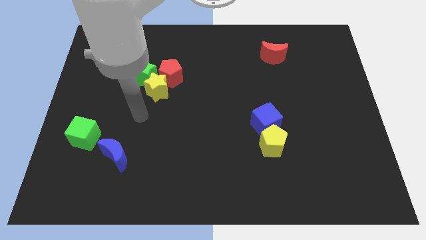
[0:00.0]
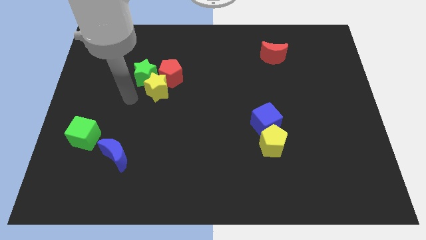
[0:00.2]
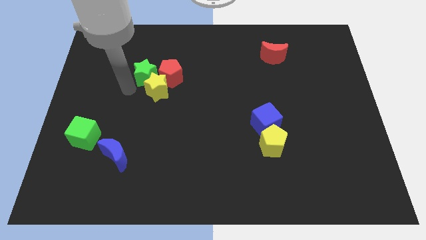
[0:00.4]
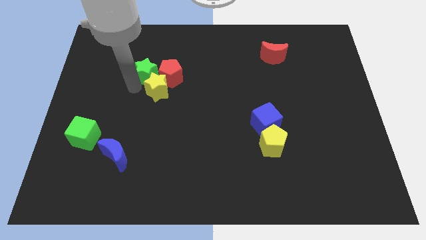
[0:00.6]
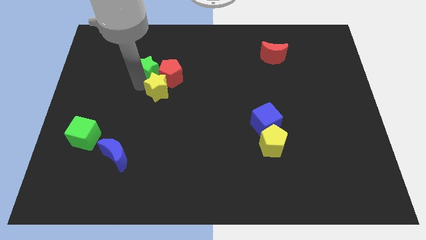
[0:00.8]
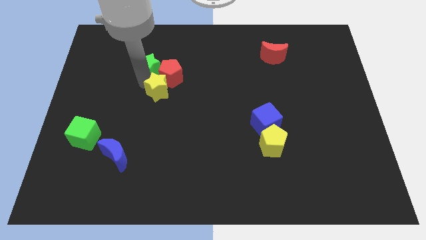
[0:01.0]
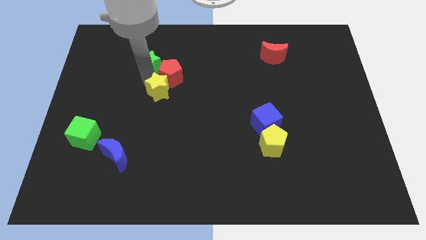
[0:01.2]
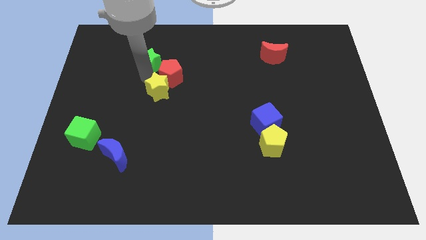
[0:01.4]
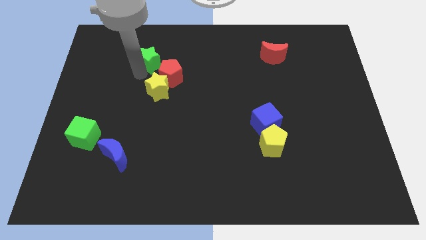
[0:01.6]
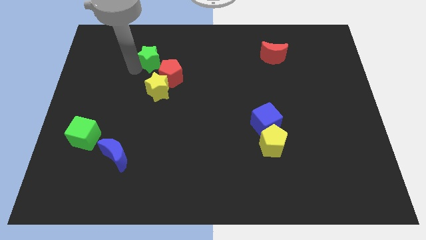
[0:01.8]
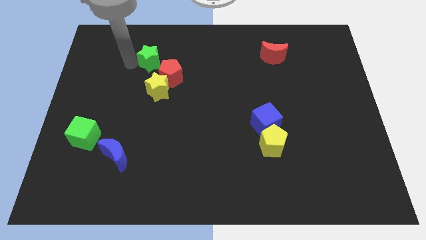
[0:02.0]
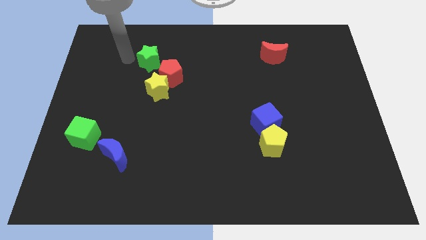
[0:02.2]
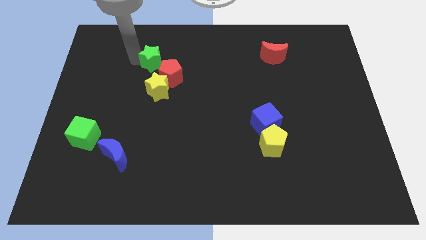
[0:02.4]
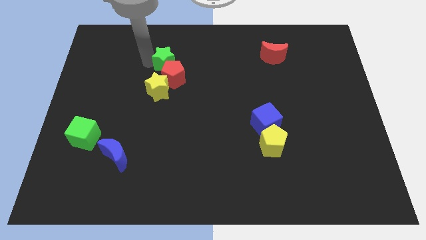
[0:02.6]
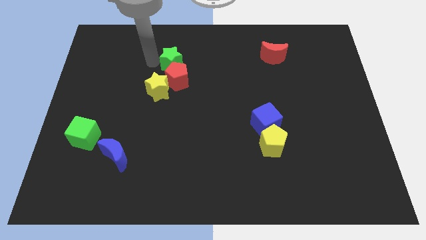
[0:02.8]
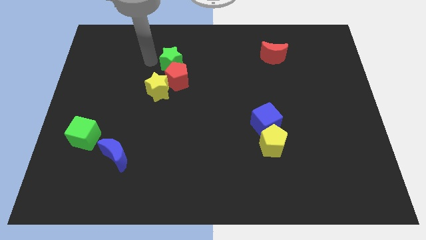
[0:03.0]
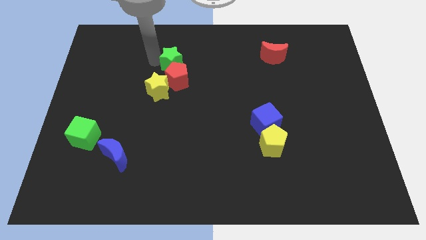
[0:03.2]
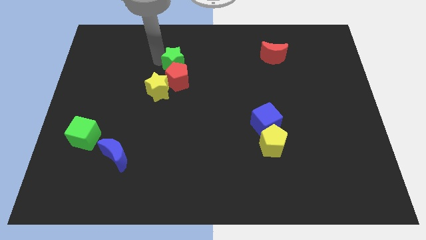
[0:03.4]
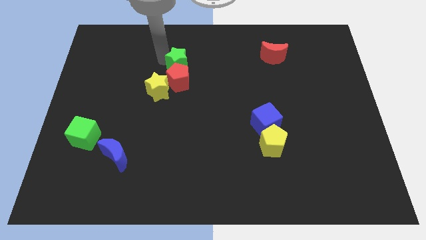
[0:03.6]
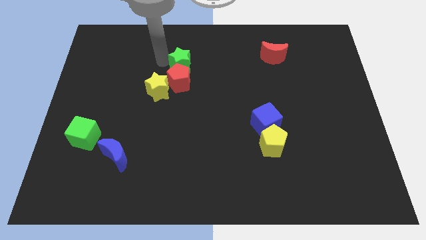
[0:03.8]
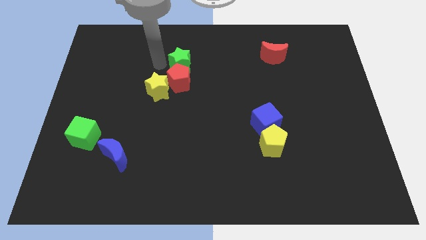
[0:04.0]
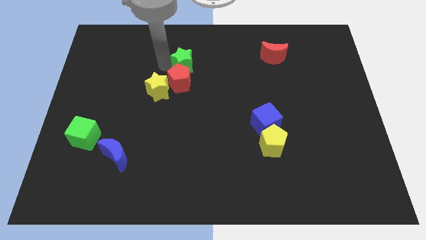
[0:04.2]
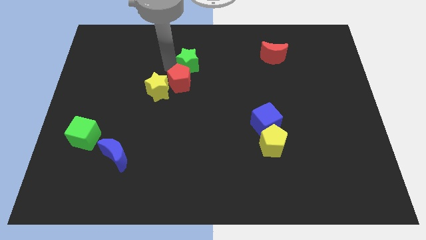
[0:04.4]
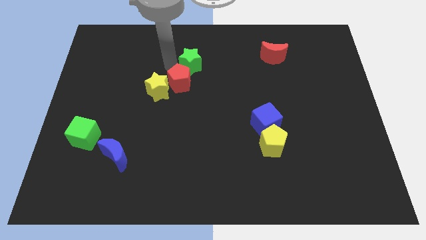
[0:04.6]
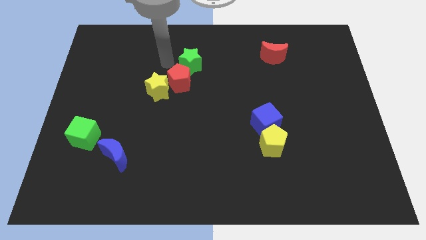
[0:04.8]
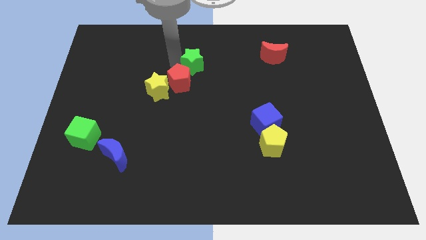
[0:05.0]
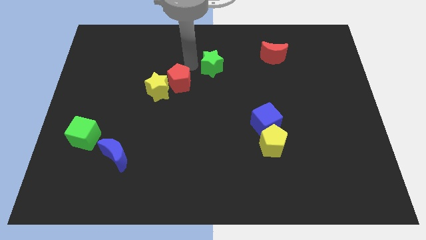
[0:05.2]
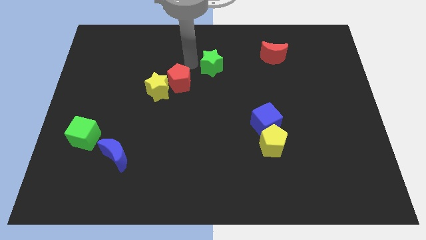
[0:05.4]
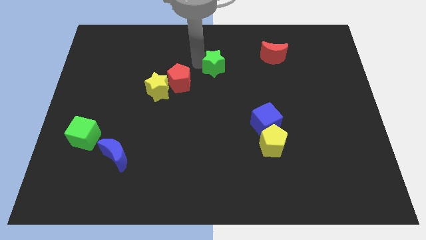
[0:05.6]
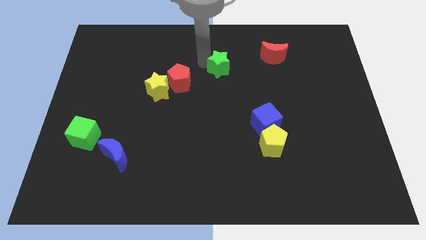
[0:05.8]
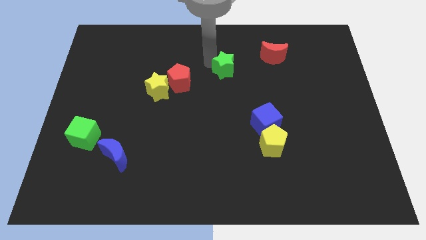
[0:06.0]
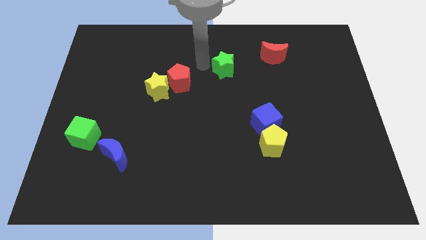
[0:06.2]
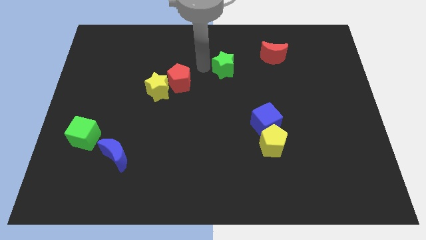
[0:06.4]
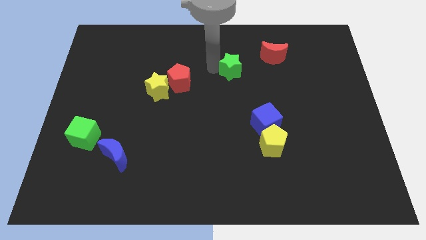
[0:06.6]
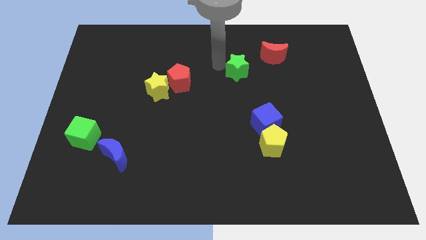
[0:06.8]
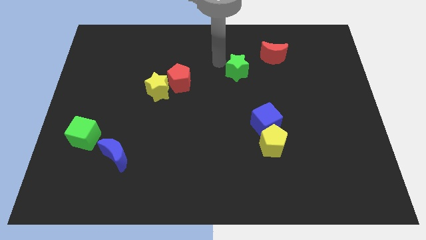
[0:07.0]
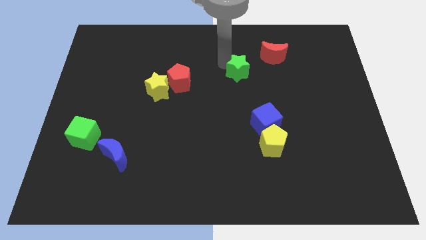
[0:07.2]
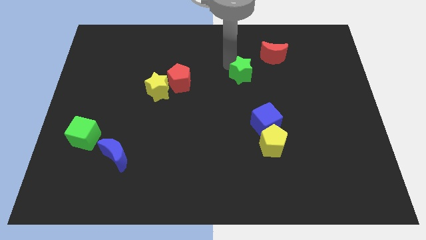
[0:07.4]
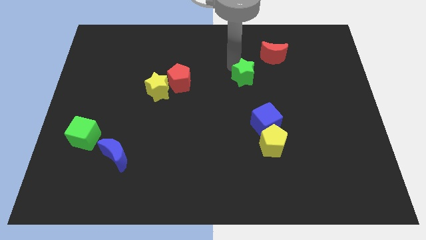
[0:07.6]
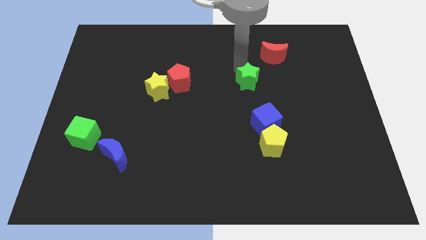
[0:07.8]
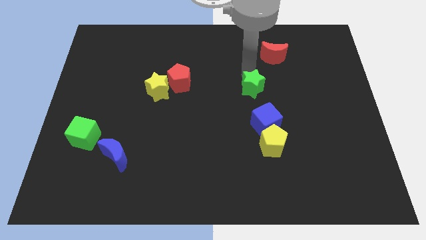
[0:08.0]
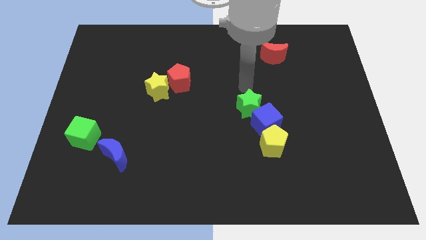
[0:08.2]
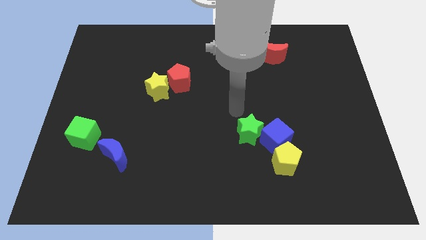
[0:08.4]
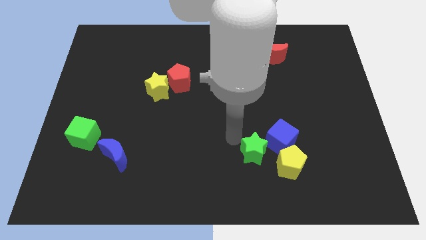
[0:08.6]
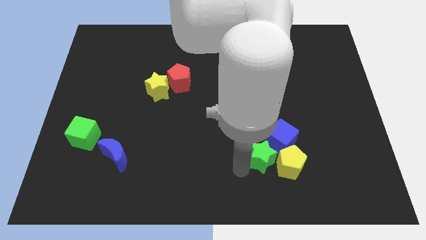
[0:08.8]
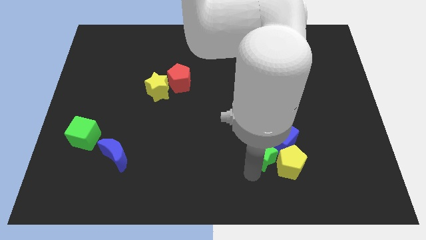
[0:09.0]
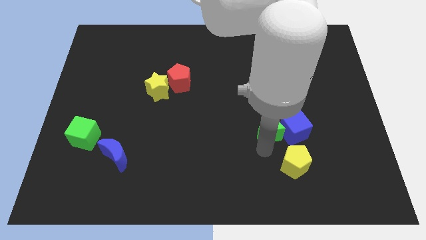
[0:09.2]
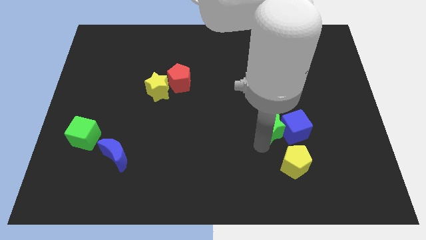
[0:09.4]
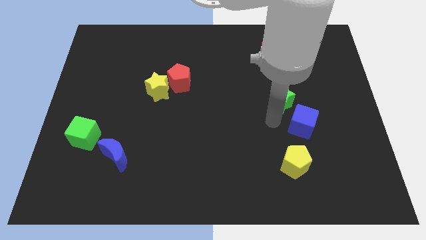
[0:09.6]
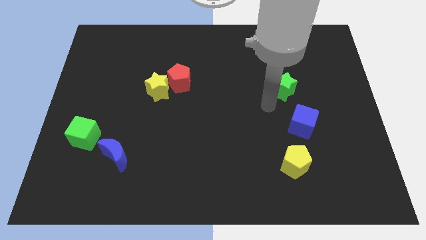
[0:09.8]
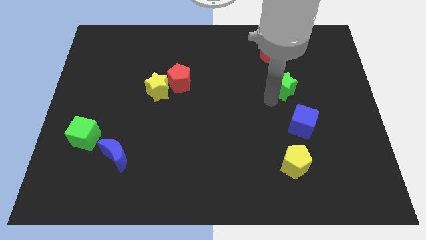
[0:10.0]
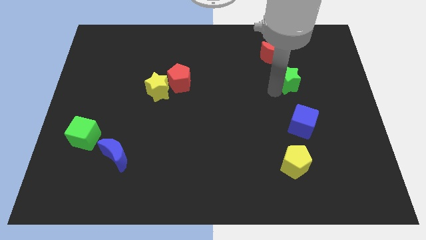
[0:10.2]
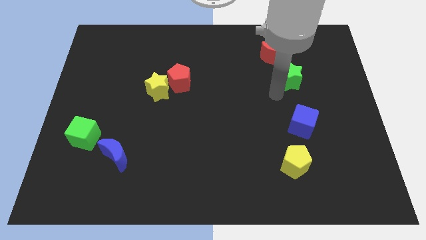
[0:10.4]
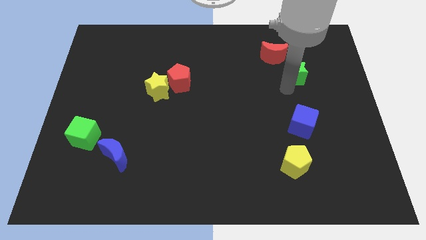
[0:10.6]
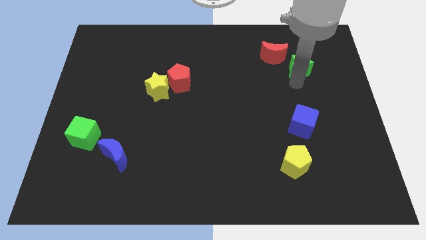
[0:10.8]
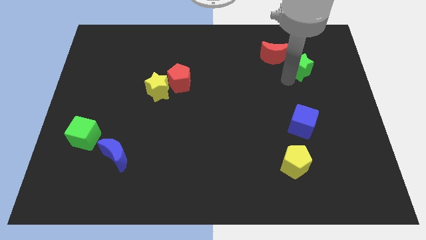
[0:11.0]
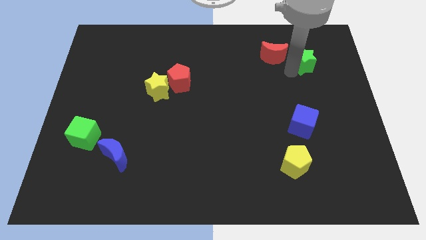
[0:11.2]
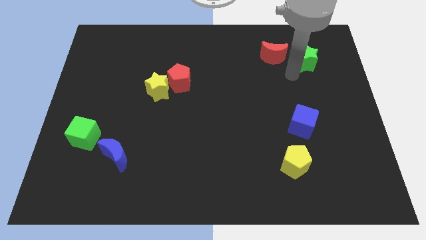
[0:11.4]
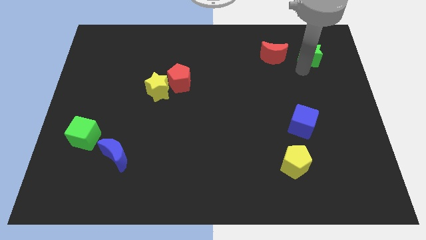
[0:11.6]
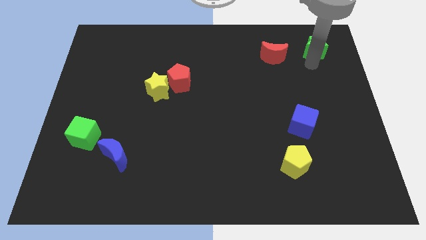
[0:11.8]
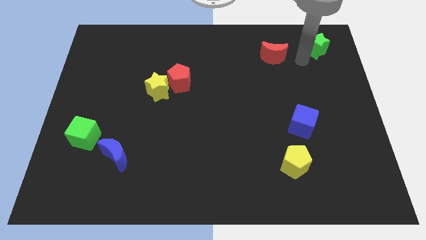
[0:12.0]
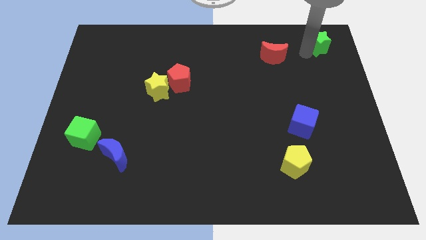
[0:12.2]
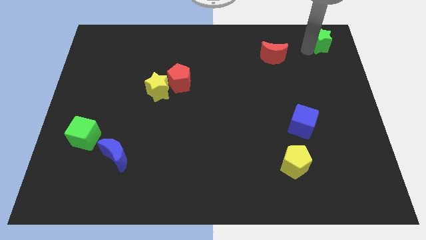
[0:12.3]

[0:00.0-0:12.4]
move the green star to the top right
